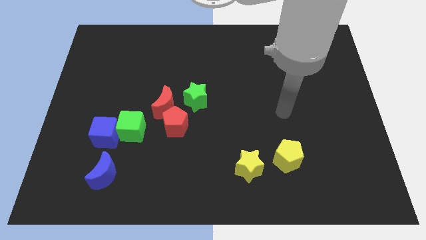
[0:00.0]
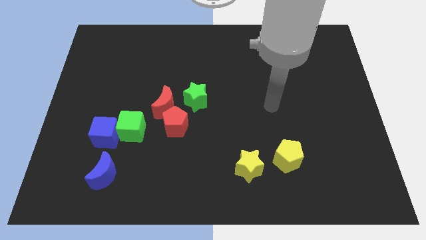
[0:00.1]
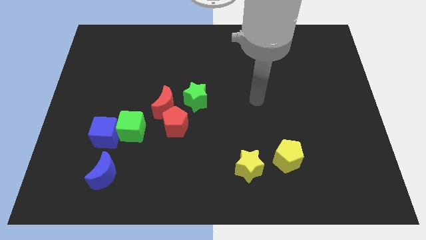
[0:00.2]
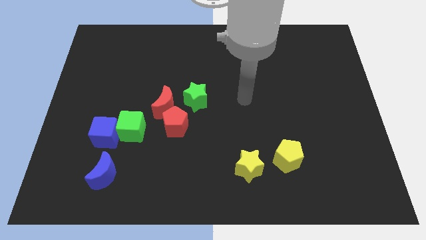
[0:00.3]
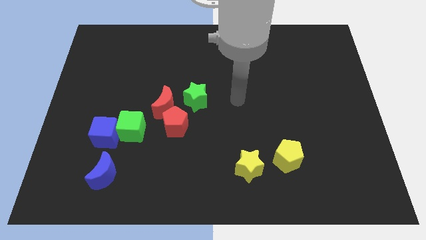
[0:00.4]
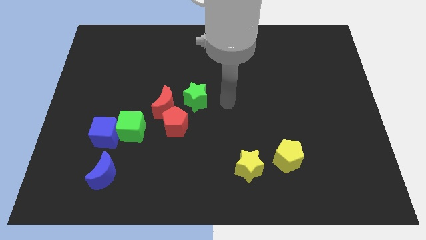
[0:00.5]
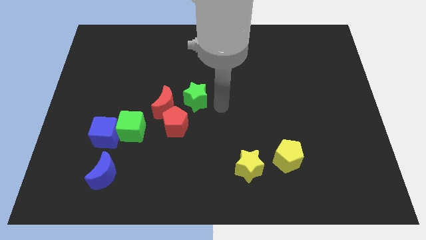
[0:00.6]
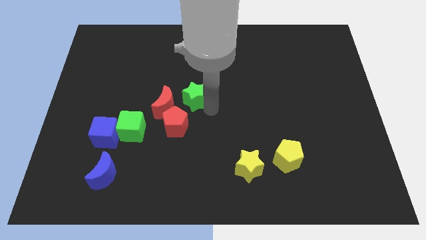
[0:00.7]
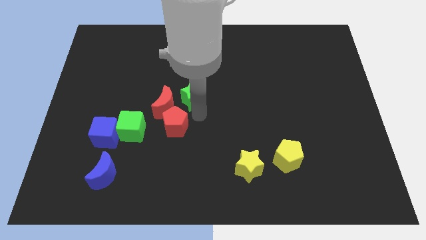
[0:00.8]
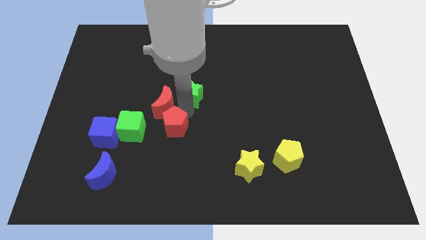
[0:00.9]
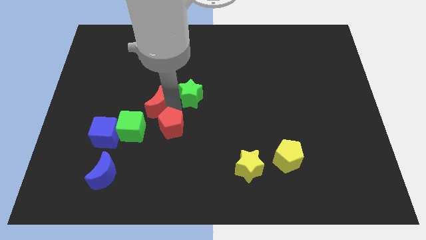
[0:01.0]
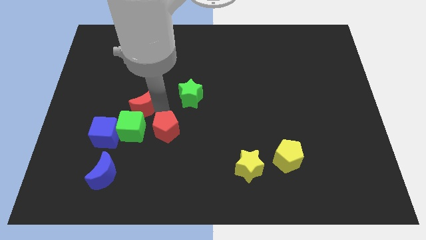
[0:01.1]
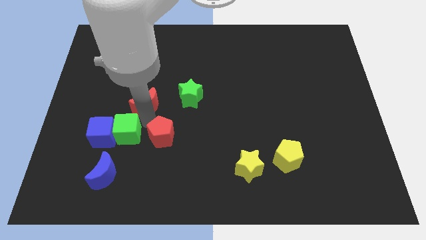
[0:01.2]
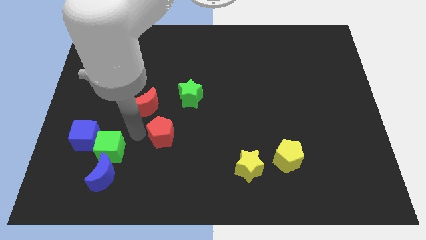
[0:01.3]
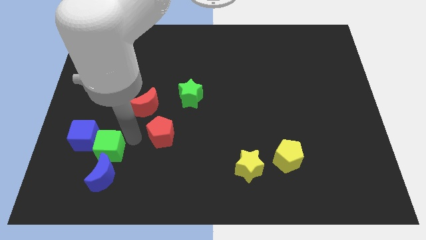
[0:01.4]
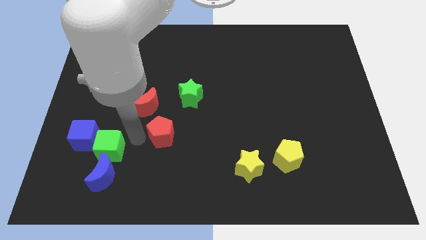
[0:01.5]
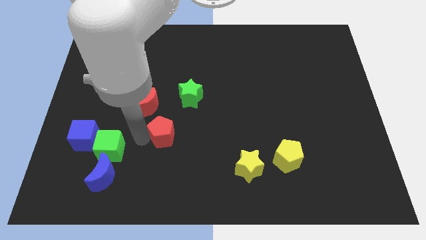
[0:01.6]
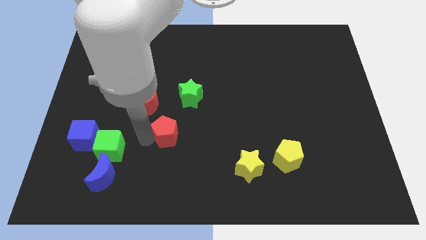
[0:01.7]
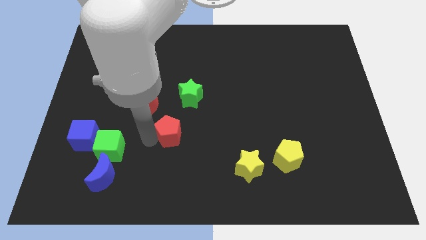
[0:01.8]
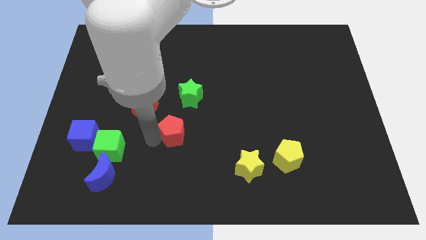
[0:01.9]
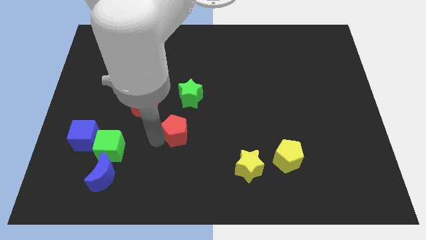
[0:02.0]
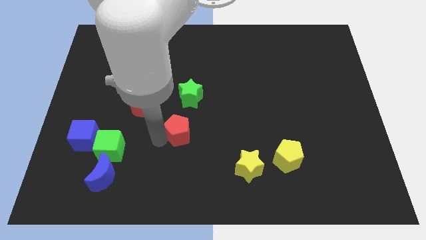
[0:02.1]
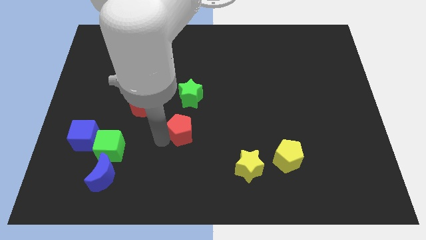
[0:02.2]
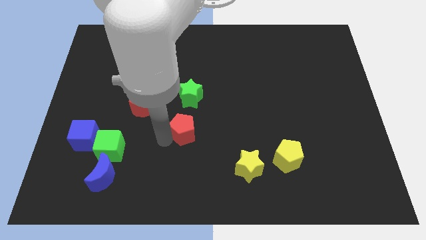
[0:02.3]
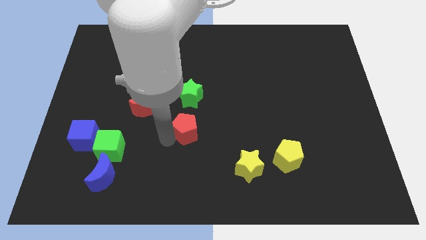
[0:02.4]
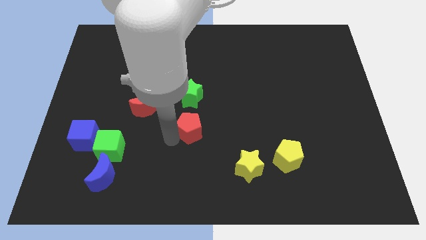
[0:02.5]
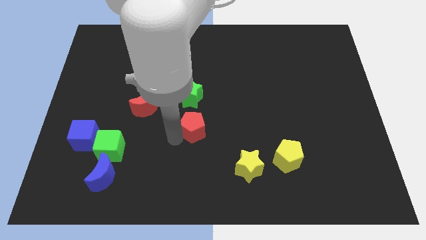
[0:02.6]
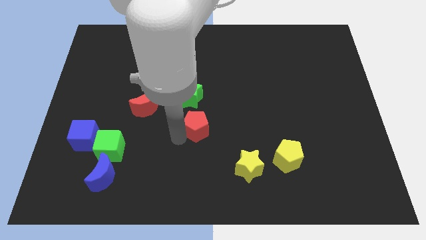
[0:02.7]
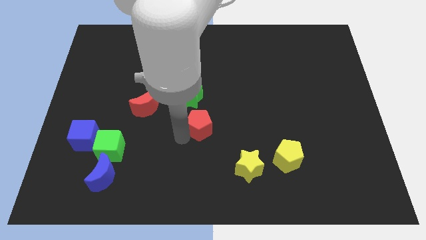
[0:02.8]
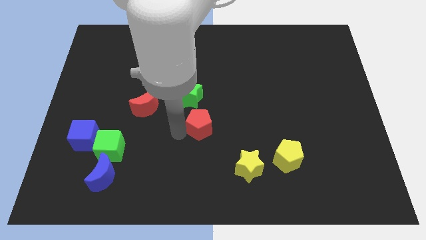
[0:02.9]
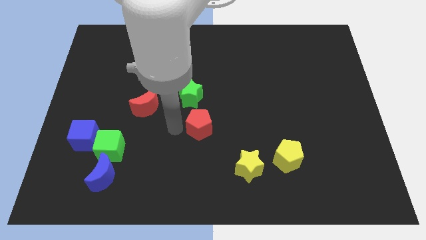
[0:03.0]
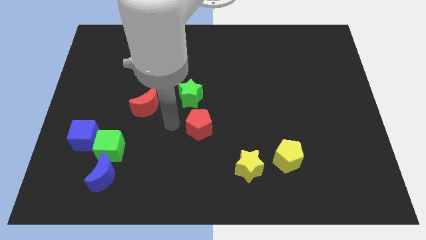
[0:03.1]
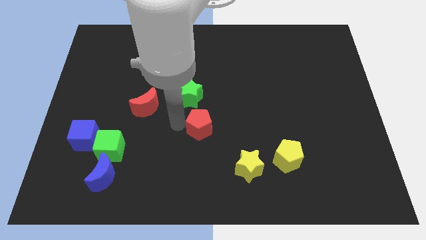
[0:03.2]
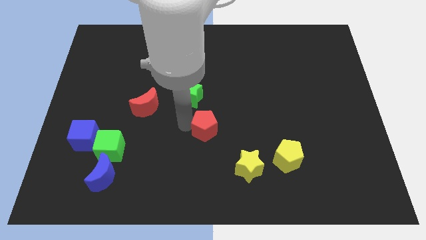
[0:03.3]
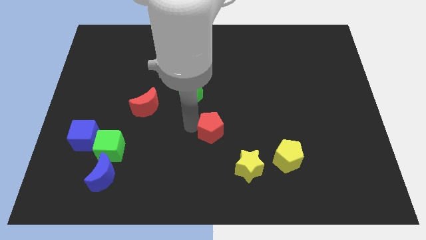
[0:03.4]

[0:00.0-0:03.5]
slightly move the red pentagon right

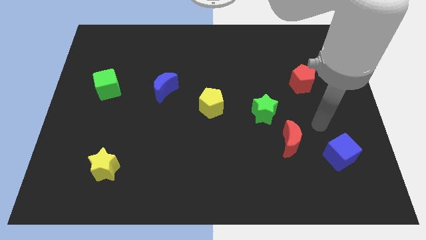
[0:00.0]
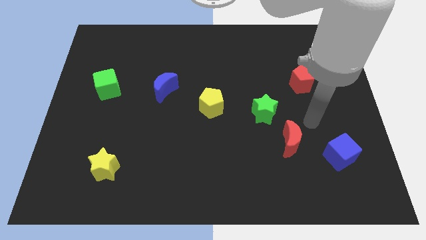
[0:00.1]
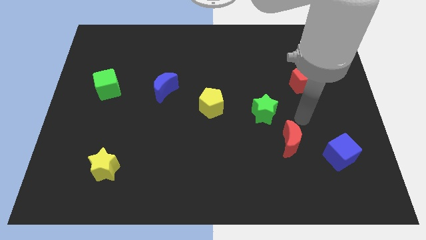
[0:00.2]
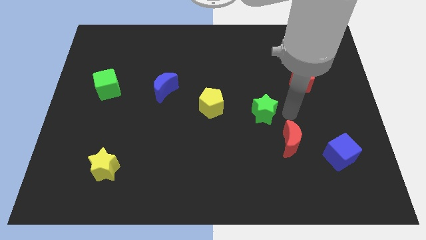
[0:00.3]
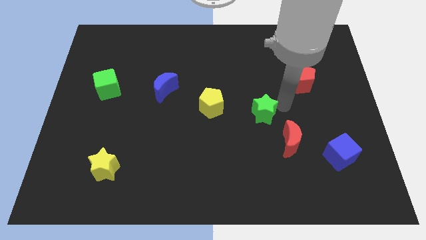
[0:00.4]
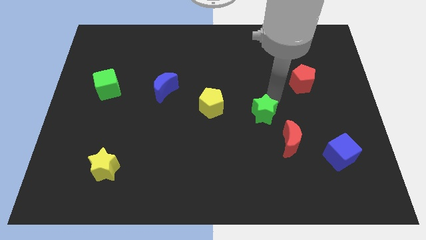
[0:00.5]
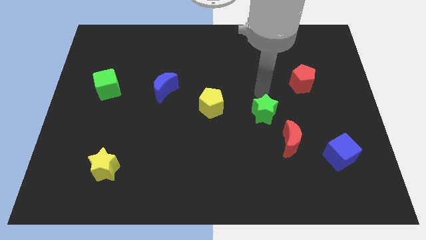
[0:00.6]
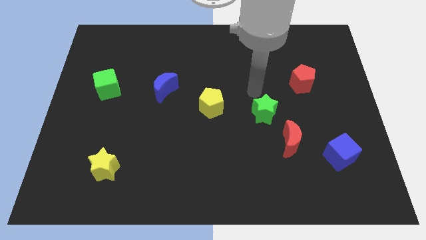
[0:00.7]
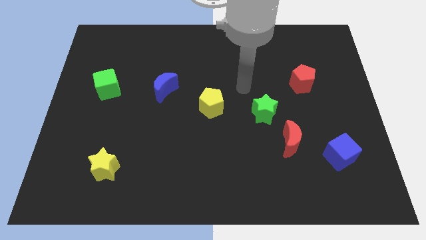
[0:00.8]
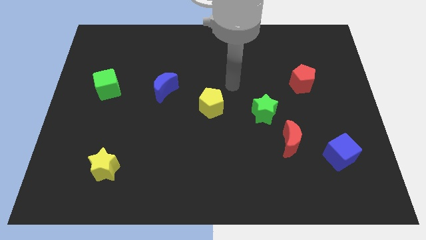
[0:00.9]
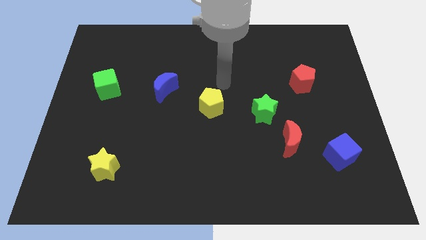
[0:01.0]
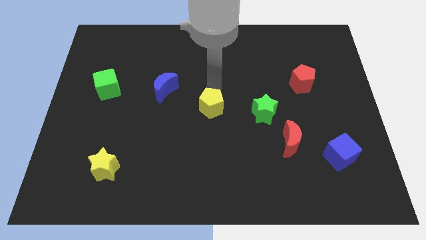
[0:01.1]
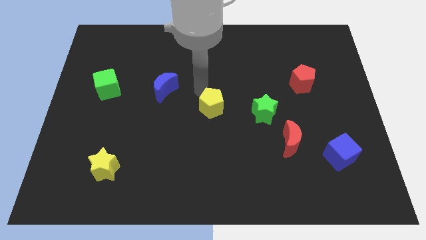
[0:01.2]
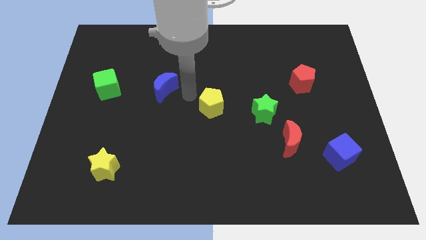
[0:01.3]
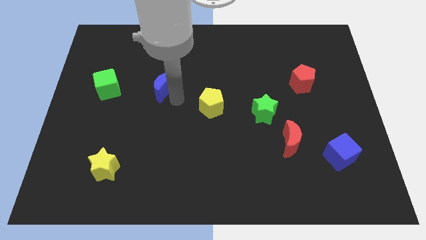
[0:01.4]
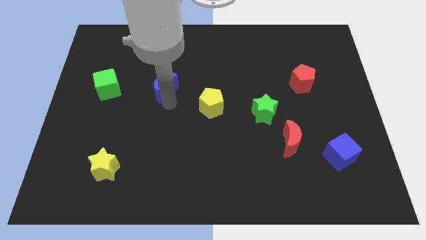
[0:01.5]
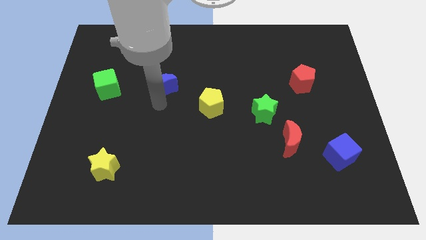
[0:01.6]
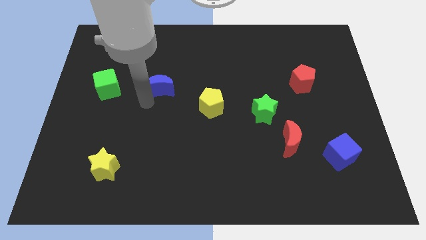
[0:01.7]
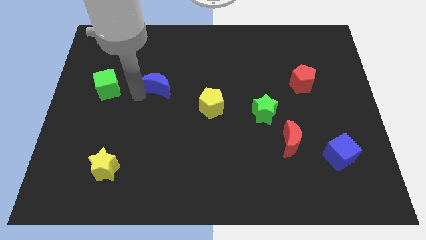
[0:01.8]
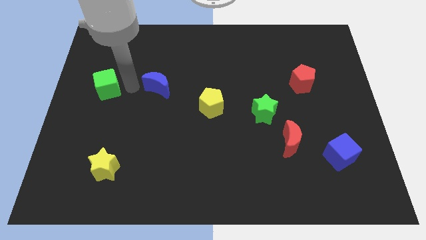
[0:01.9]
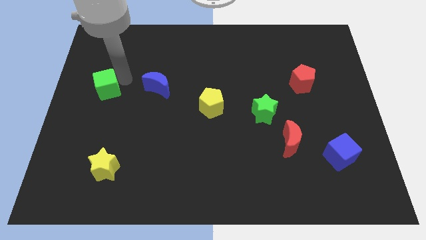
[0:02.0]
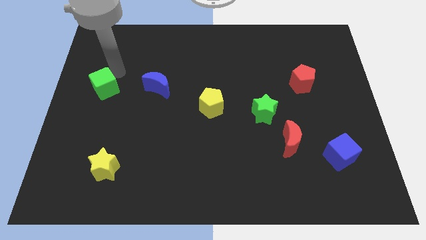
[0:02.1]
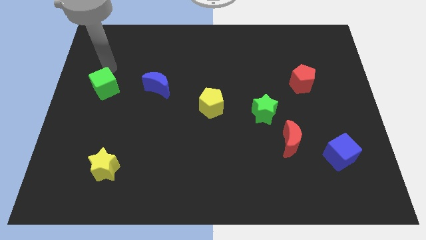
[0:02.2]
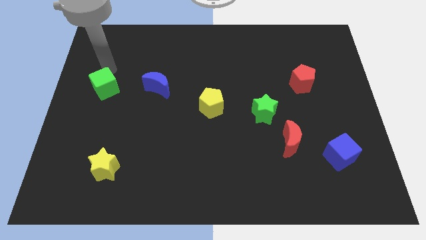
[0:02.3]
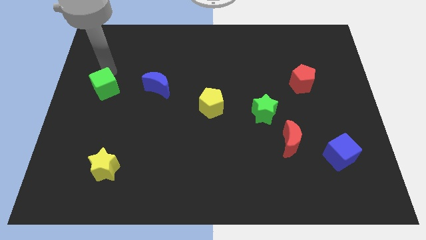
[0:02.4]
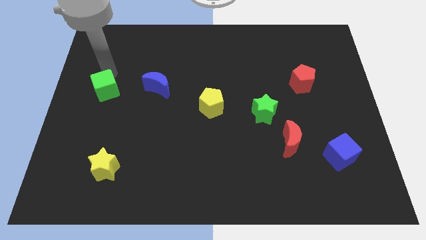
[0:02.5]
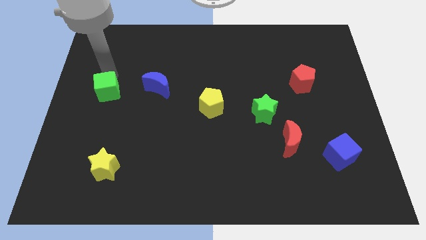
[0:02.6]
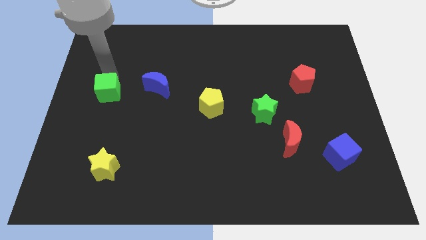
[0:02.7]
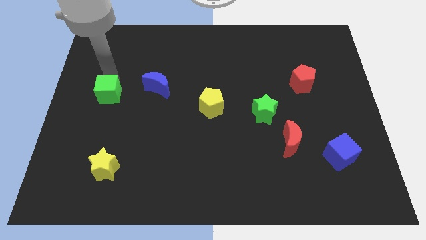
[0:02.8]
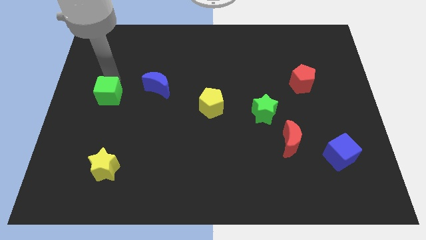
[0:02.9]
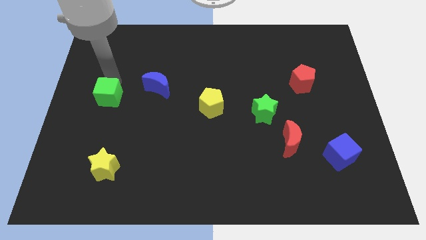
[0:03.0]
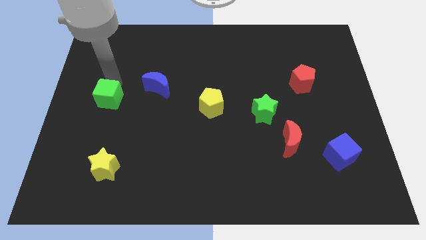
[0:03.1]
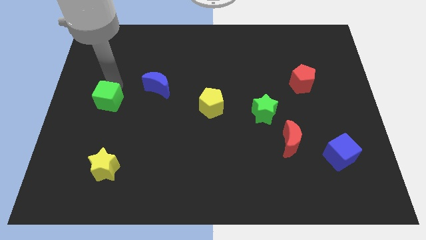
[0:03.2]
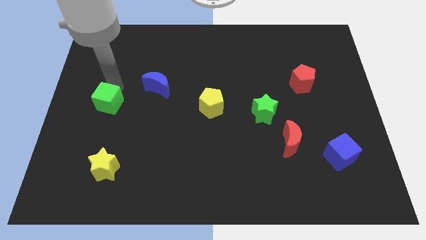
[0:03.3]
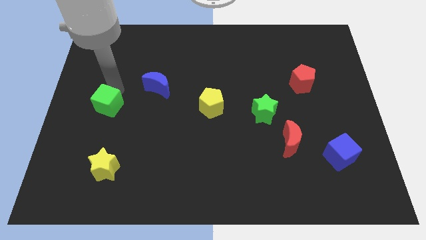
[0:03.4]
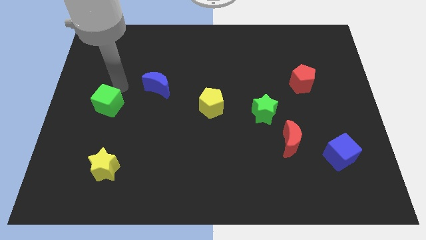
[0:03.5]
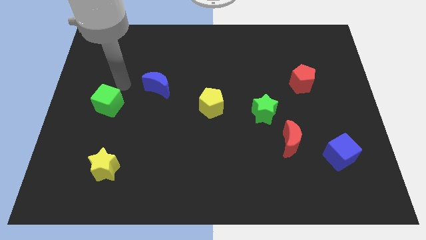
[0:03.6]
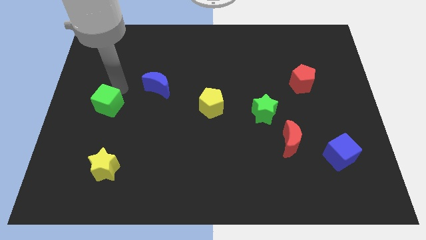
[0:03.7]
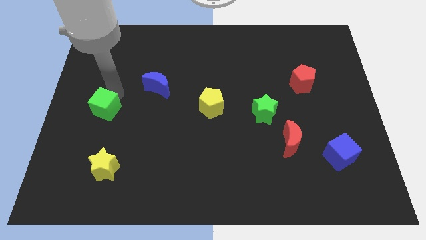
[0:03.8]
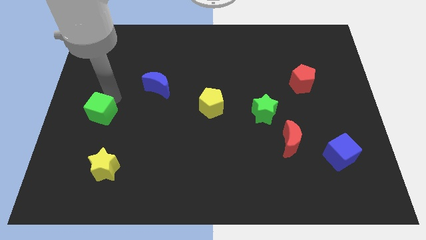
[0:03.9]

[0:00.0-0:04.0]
move the green cube down somewhat
